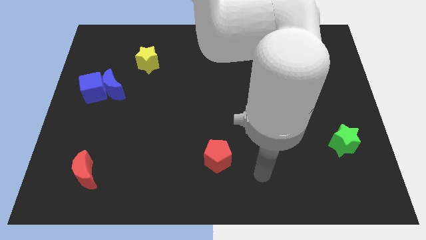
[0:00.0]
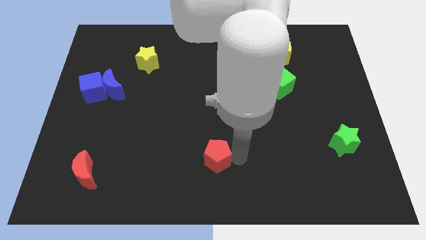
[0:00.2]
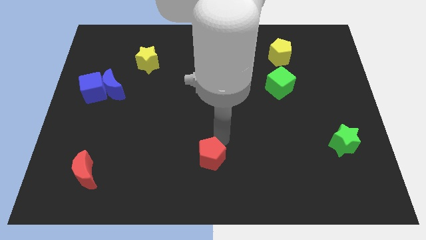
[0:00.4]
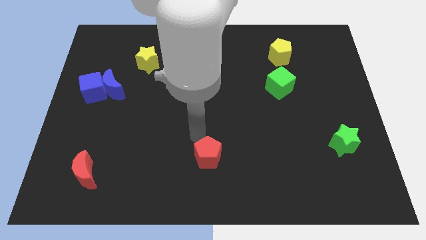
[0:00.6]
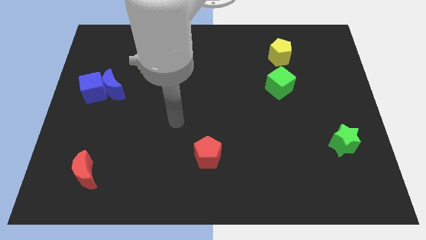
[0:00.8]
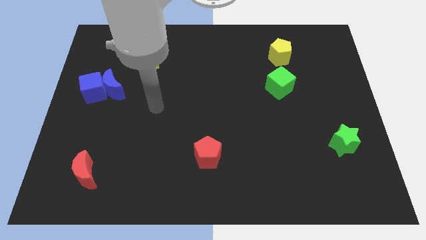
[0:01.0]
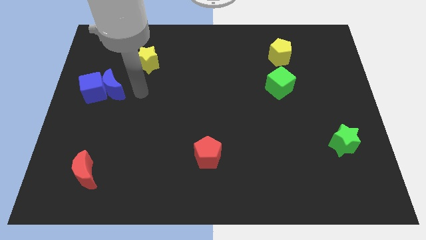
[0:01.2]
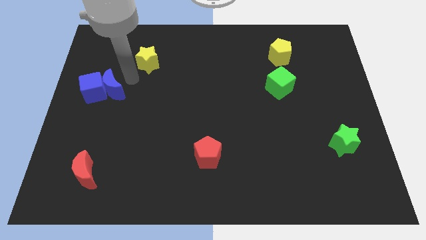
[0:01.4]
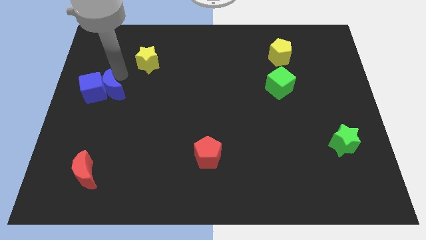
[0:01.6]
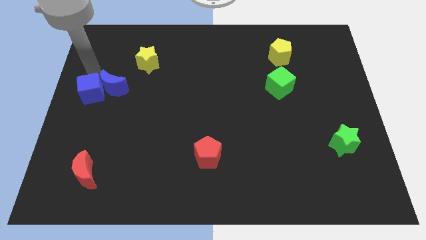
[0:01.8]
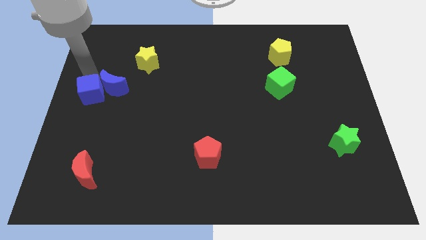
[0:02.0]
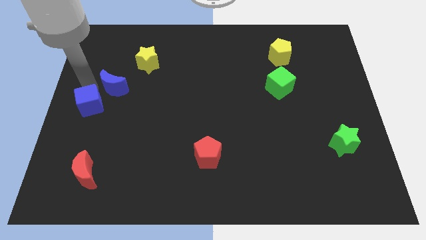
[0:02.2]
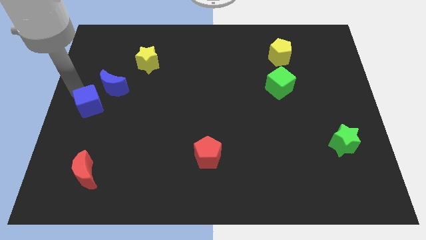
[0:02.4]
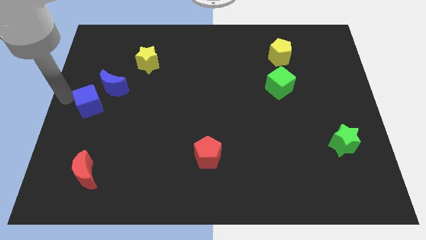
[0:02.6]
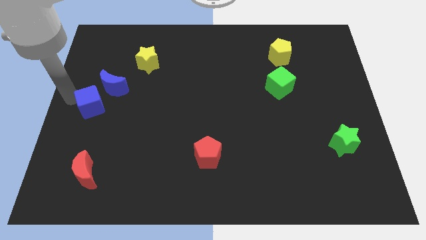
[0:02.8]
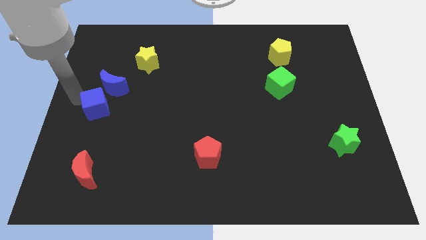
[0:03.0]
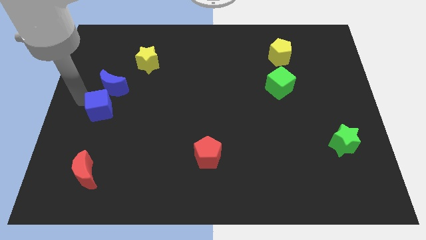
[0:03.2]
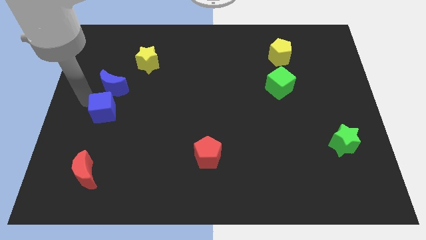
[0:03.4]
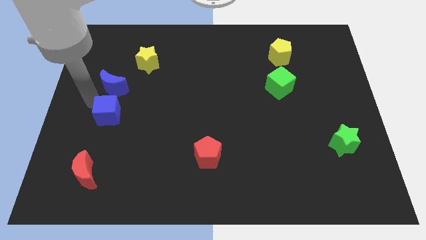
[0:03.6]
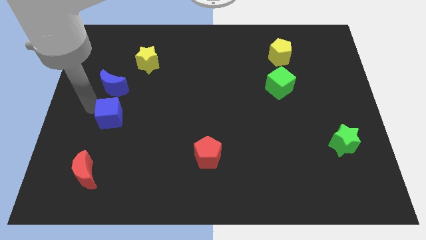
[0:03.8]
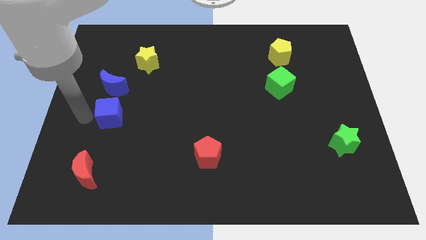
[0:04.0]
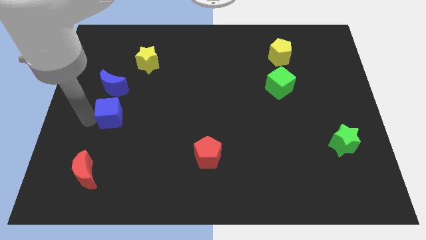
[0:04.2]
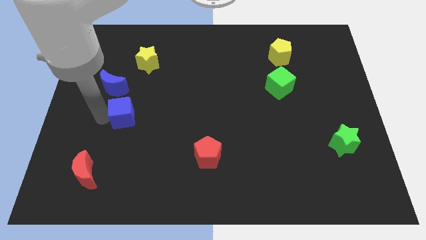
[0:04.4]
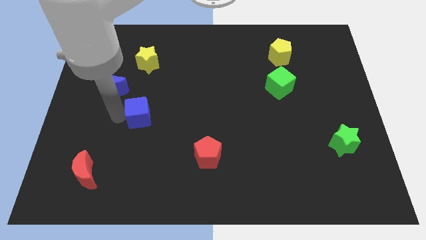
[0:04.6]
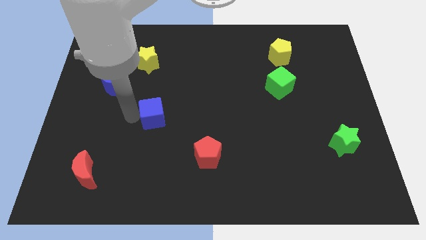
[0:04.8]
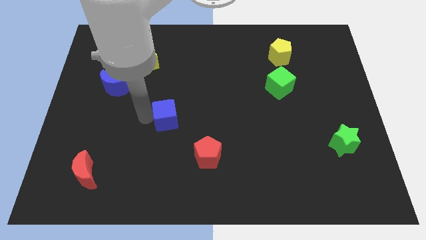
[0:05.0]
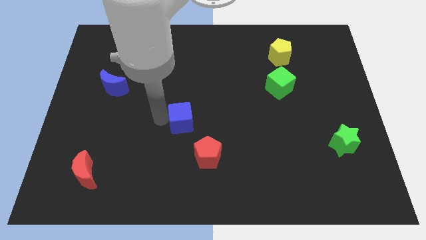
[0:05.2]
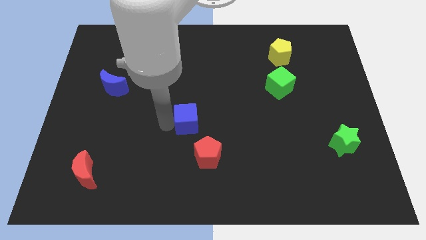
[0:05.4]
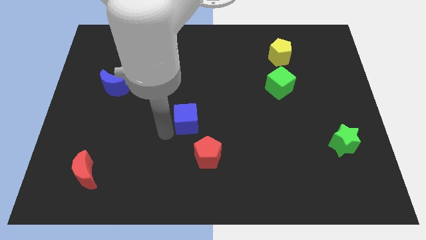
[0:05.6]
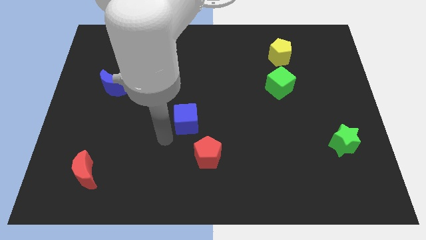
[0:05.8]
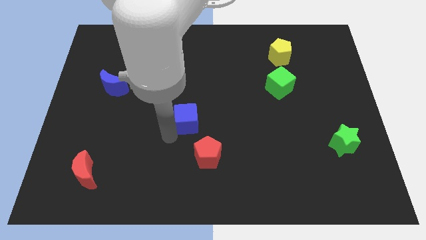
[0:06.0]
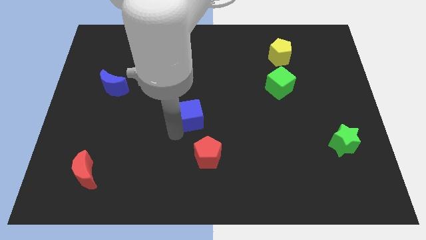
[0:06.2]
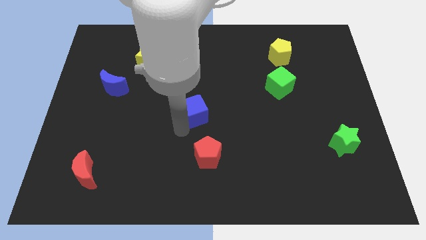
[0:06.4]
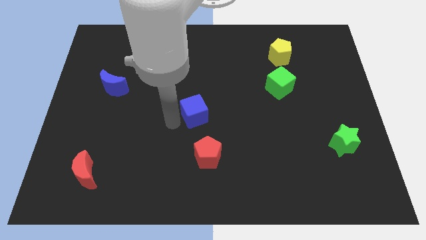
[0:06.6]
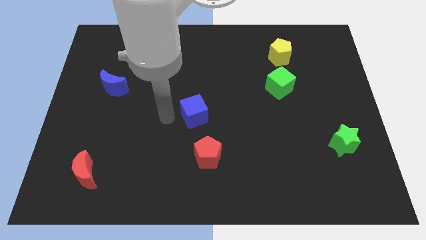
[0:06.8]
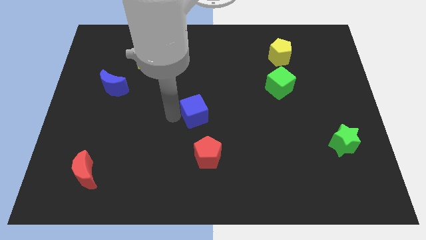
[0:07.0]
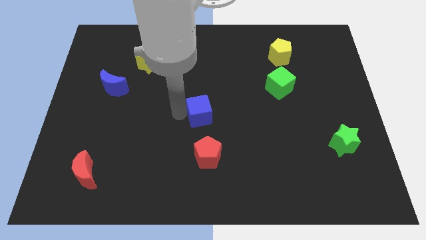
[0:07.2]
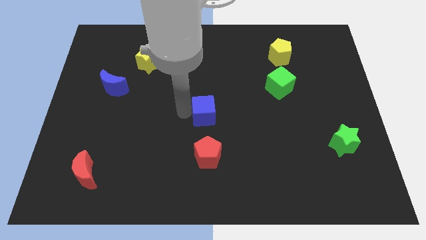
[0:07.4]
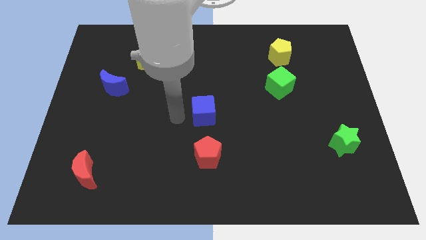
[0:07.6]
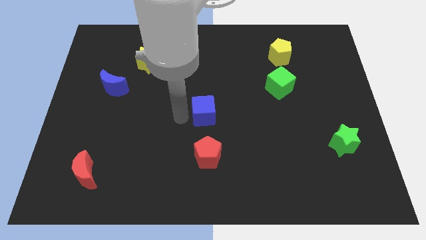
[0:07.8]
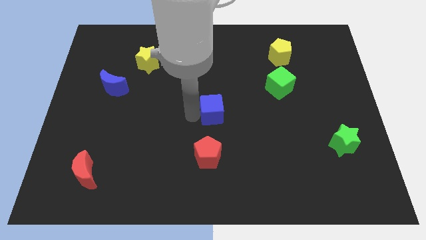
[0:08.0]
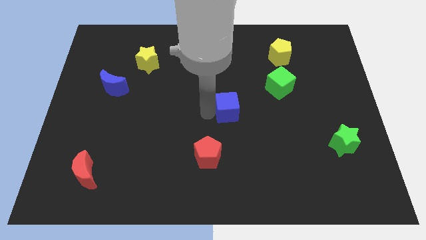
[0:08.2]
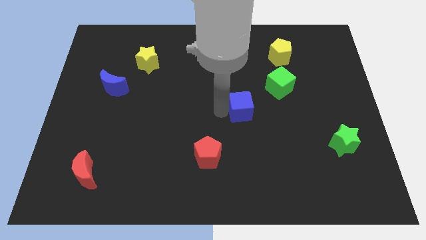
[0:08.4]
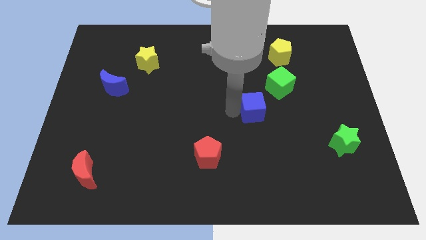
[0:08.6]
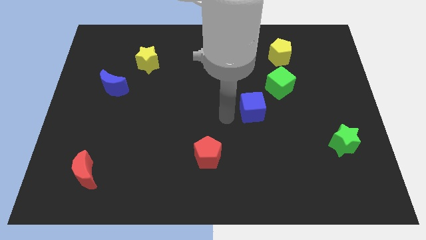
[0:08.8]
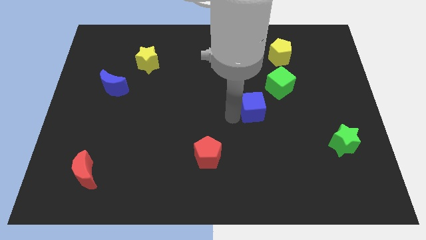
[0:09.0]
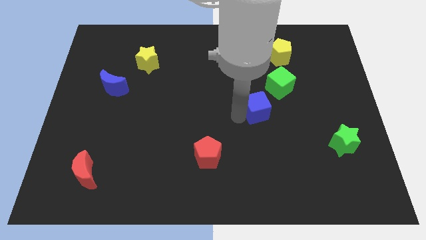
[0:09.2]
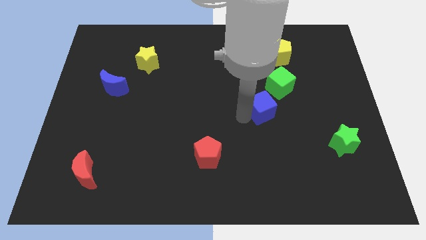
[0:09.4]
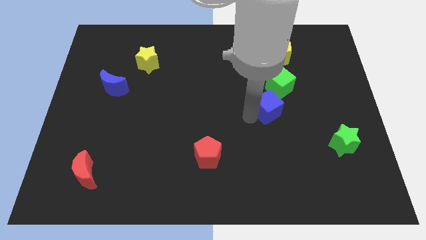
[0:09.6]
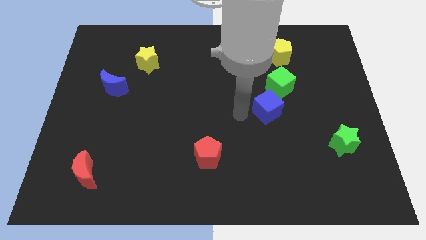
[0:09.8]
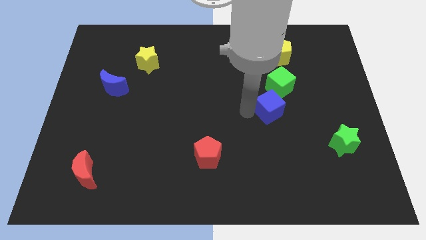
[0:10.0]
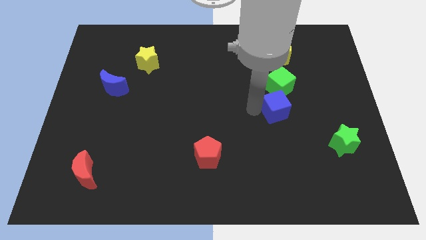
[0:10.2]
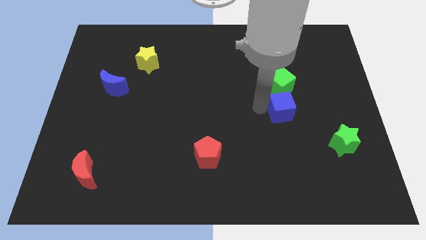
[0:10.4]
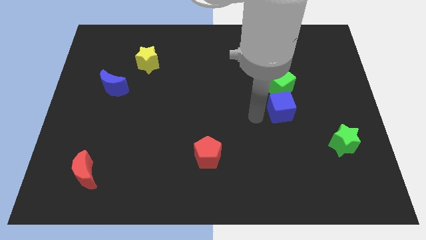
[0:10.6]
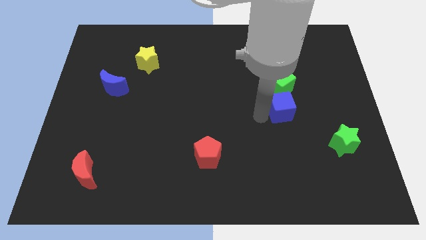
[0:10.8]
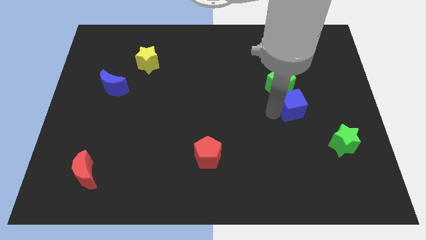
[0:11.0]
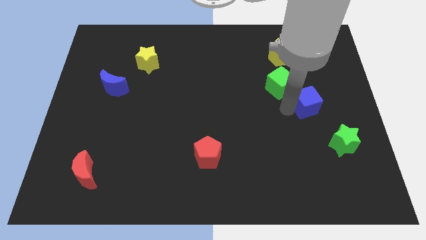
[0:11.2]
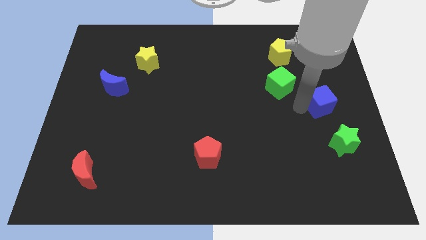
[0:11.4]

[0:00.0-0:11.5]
put the blue cube to the center right
